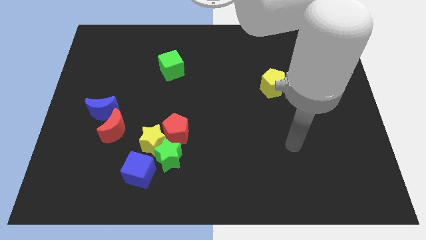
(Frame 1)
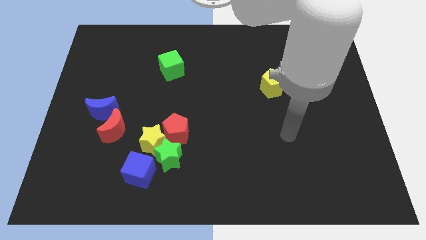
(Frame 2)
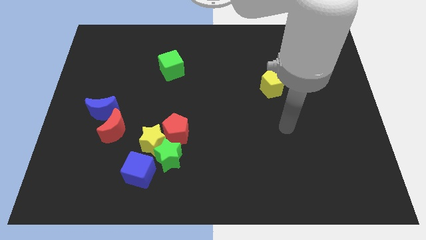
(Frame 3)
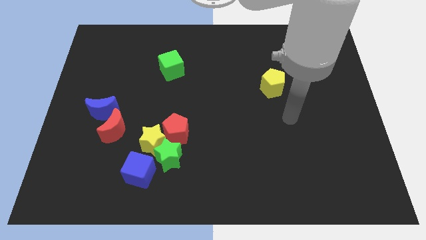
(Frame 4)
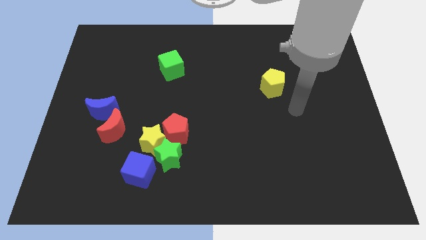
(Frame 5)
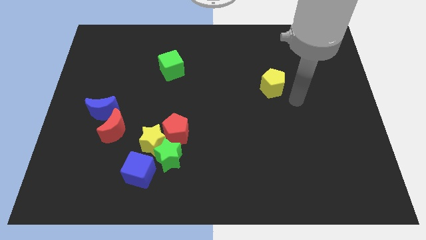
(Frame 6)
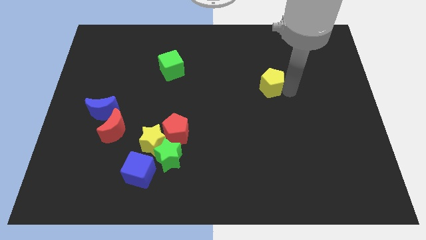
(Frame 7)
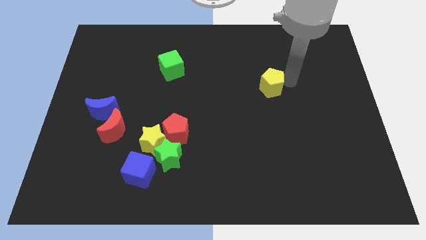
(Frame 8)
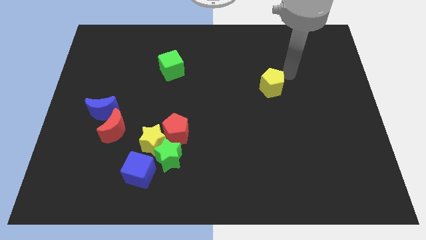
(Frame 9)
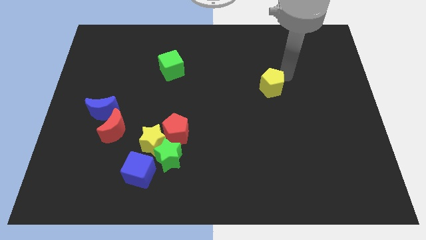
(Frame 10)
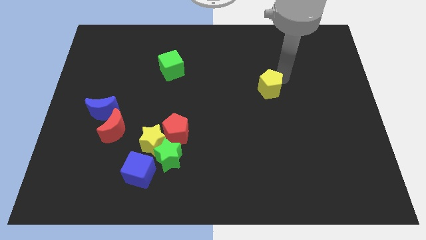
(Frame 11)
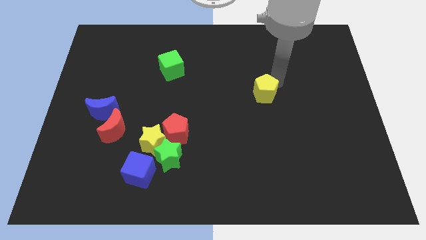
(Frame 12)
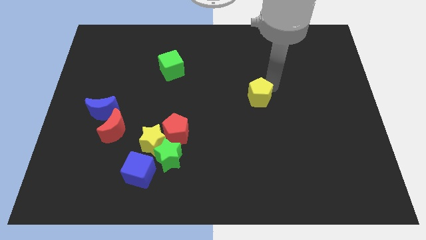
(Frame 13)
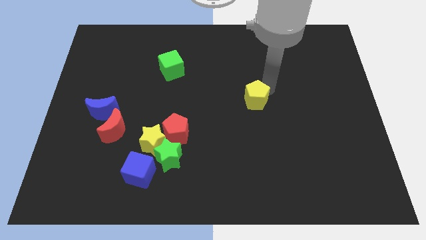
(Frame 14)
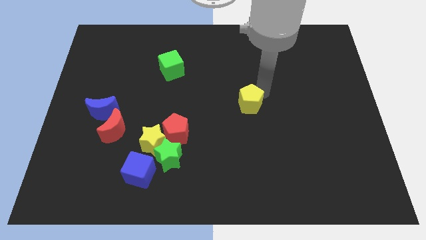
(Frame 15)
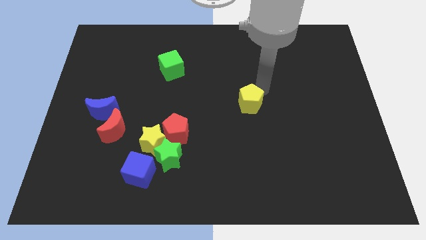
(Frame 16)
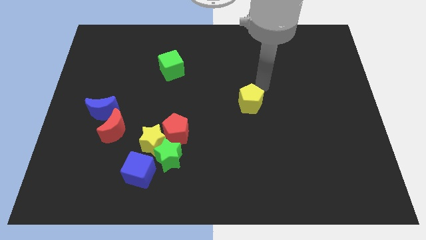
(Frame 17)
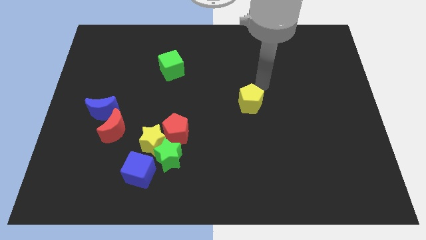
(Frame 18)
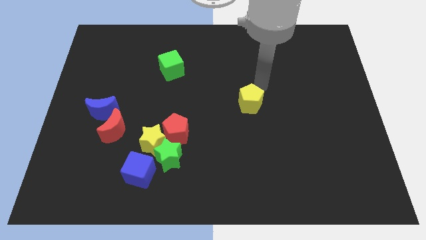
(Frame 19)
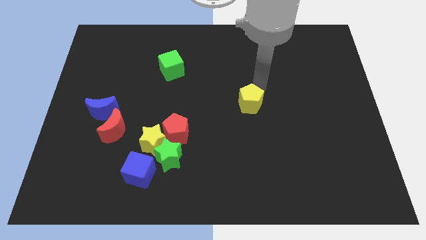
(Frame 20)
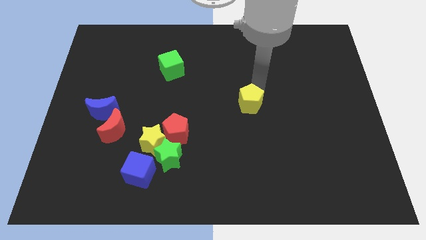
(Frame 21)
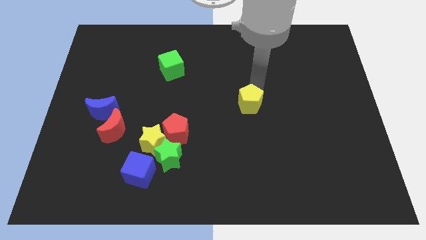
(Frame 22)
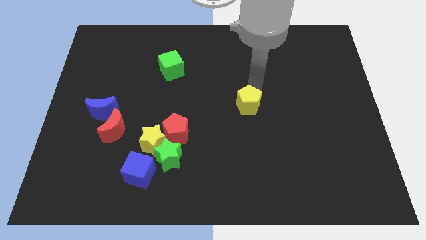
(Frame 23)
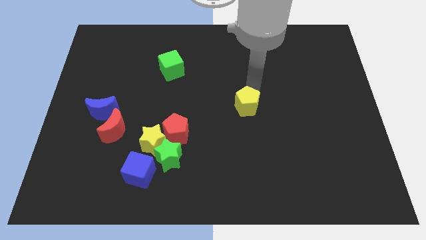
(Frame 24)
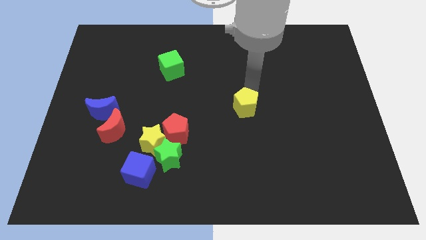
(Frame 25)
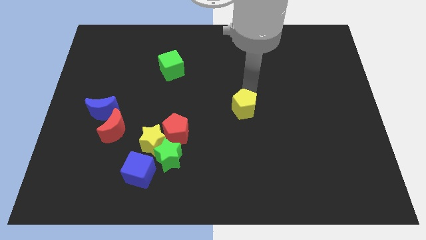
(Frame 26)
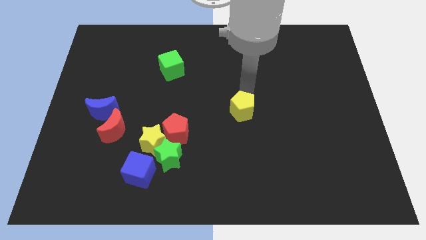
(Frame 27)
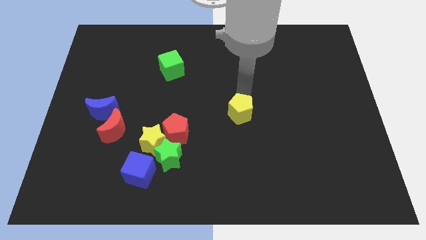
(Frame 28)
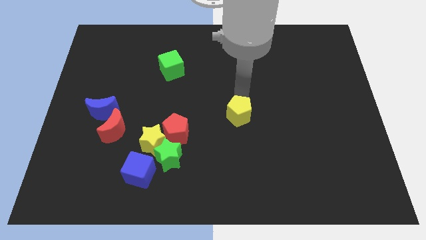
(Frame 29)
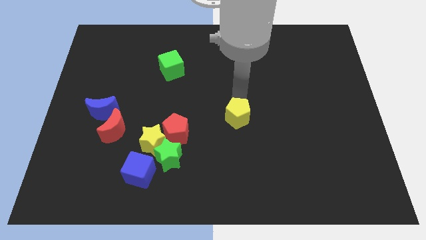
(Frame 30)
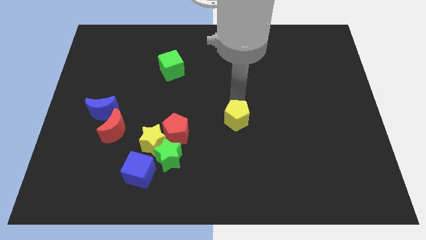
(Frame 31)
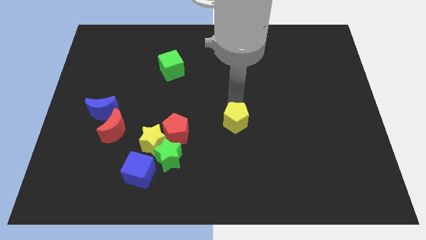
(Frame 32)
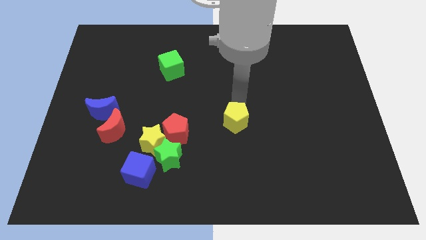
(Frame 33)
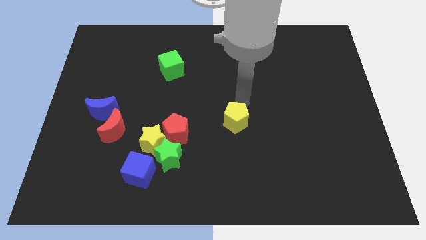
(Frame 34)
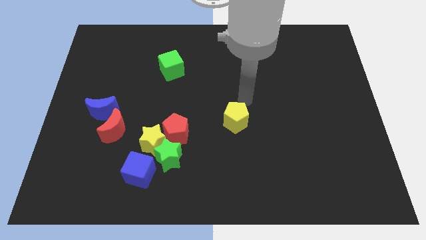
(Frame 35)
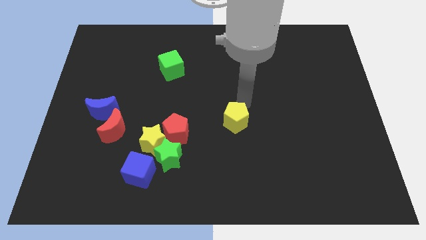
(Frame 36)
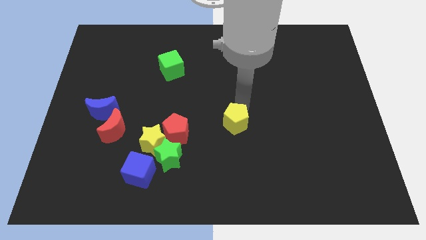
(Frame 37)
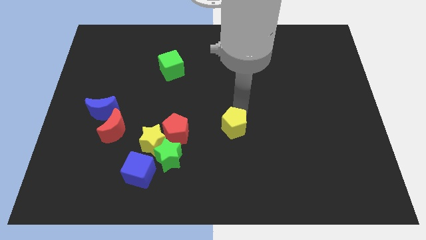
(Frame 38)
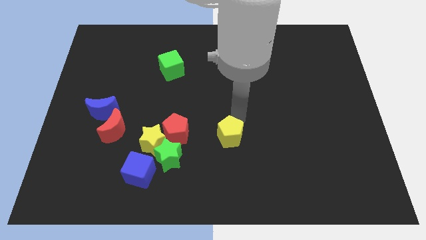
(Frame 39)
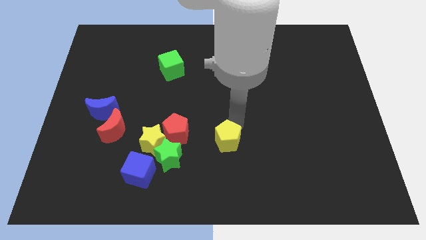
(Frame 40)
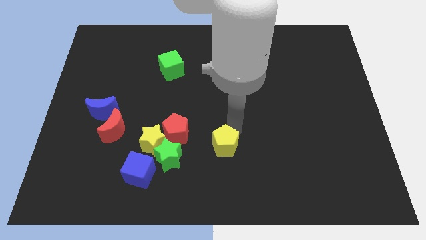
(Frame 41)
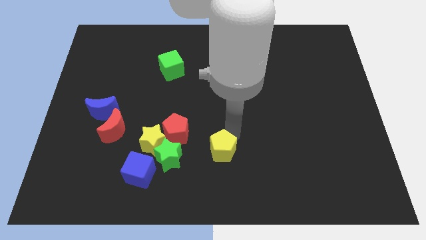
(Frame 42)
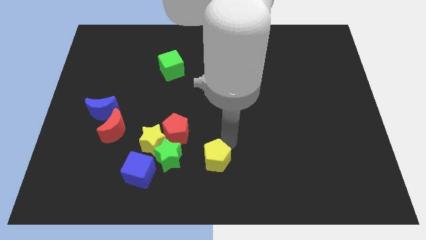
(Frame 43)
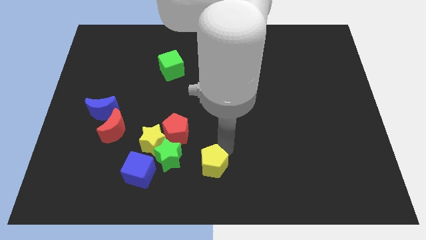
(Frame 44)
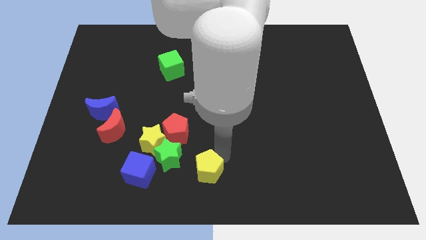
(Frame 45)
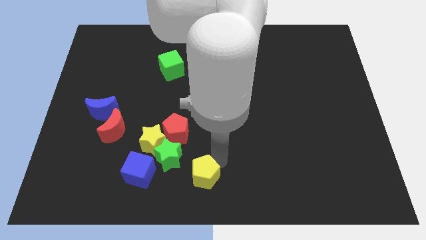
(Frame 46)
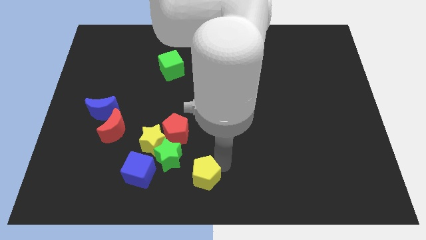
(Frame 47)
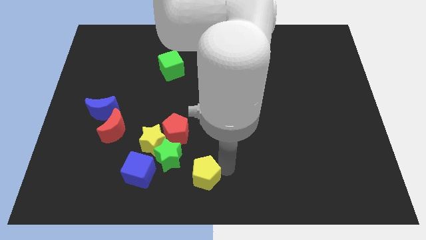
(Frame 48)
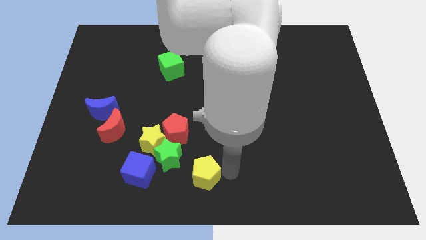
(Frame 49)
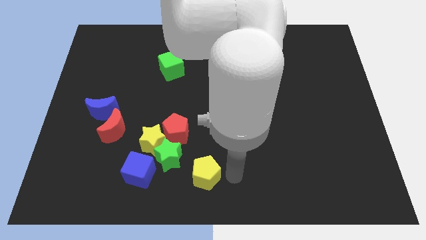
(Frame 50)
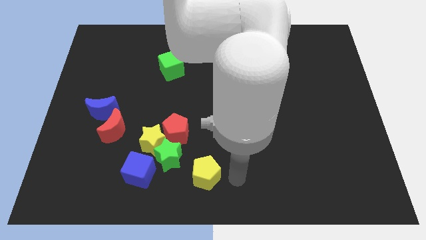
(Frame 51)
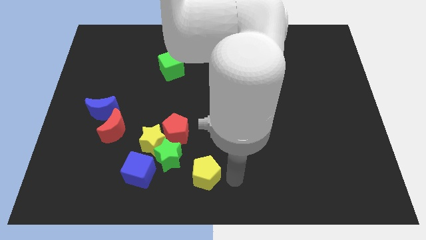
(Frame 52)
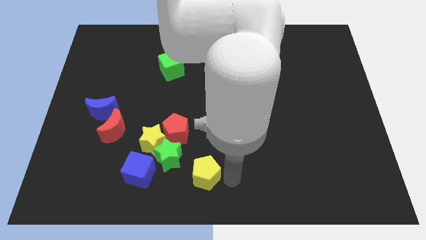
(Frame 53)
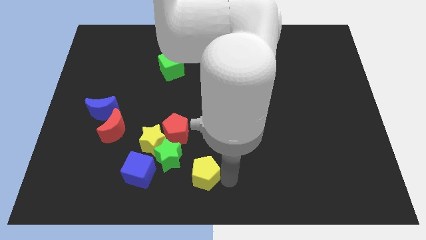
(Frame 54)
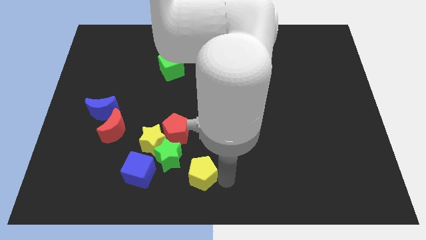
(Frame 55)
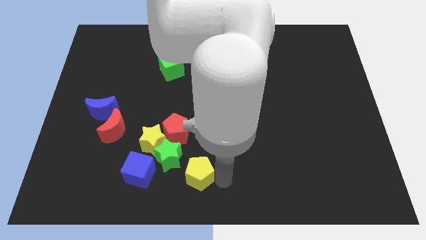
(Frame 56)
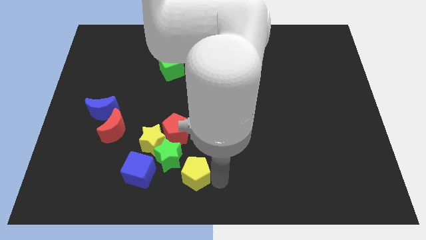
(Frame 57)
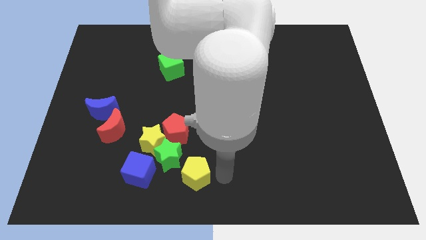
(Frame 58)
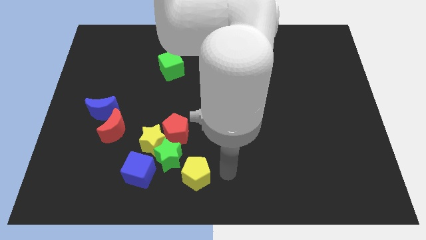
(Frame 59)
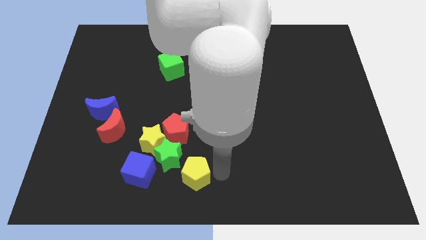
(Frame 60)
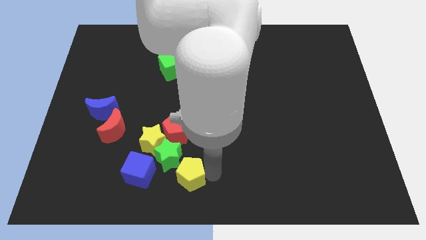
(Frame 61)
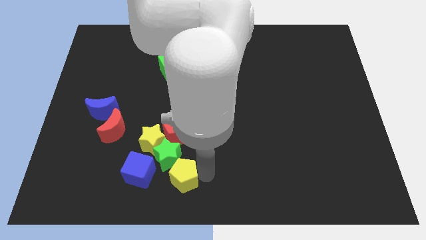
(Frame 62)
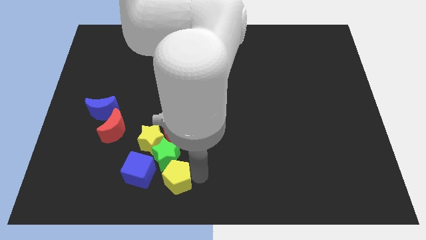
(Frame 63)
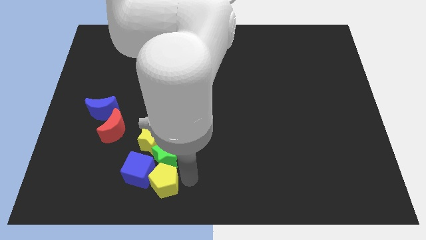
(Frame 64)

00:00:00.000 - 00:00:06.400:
slide the yellow pentagon towards the blue cube
